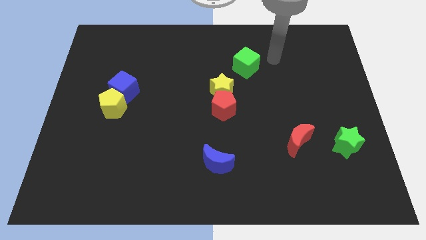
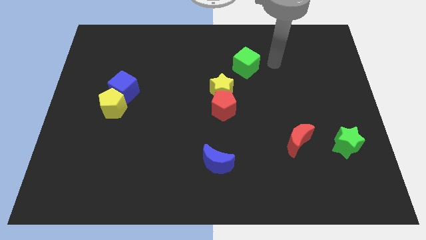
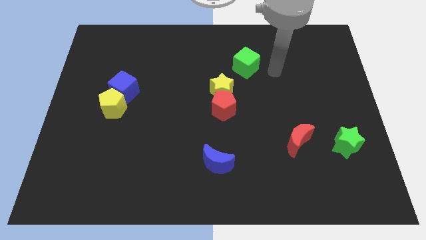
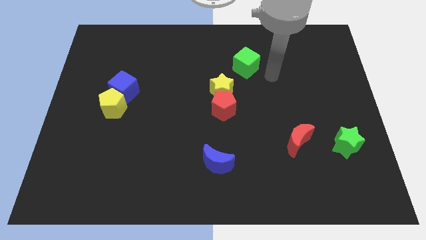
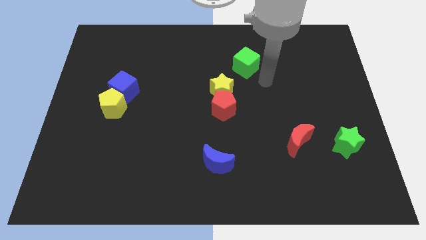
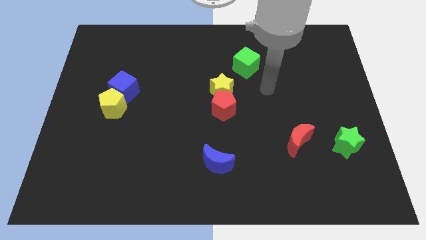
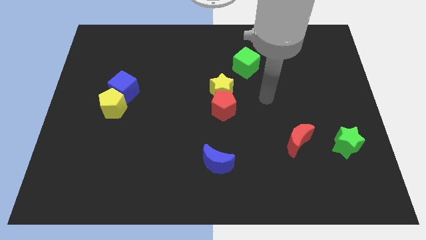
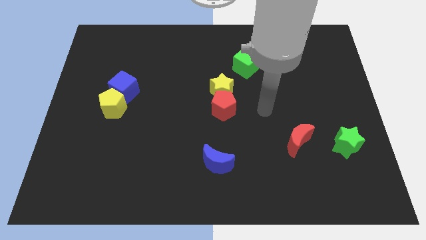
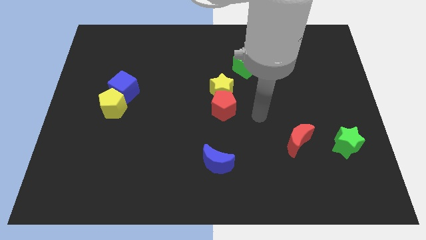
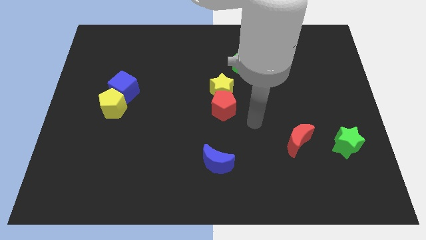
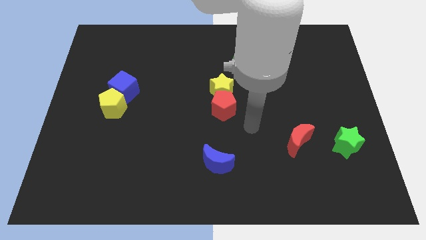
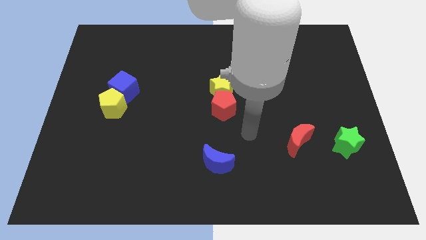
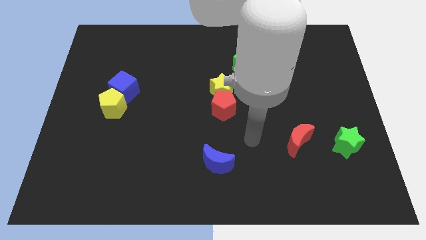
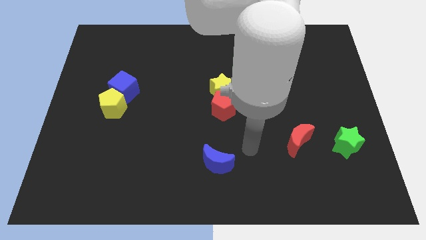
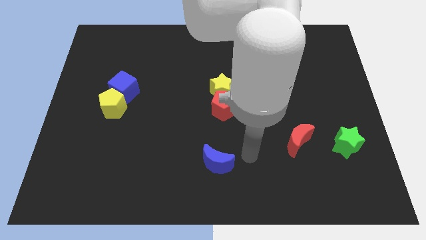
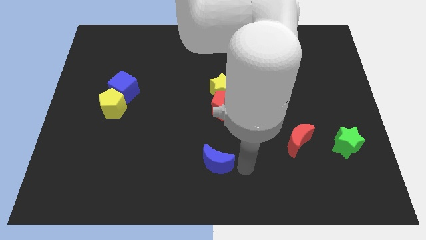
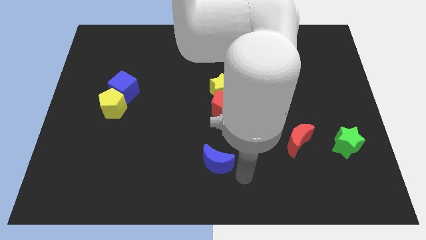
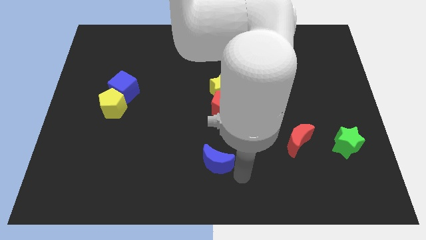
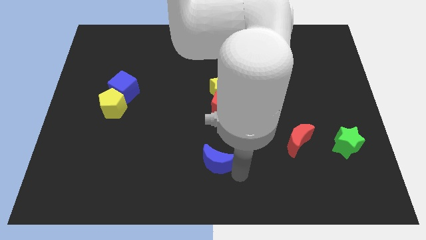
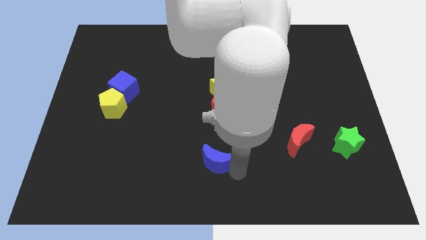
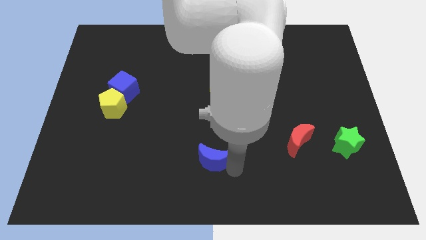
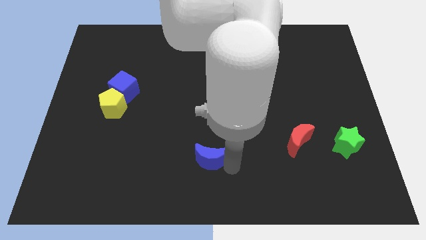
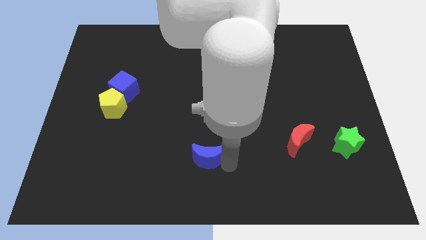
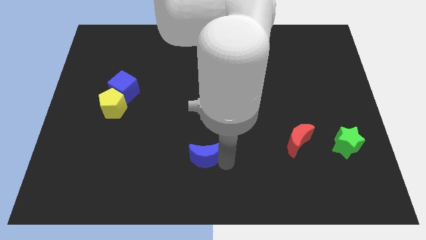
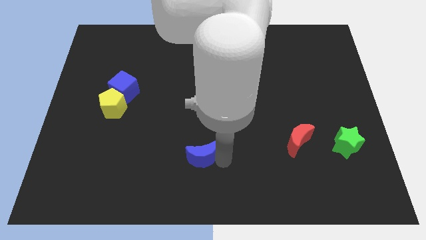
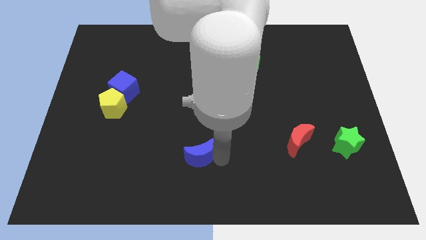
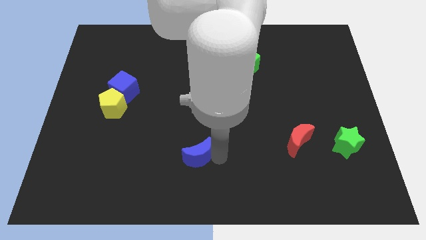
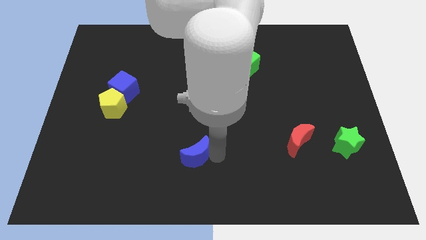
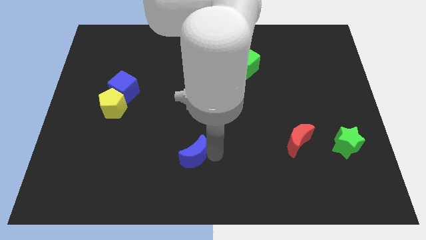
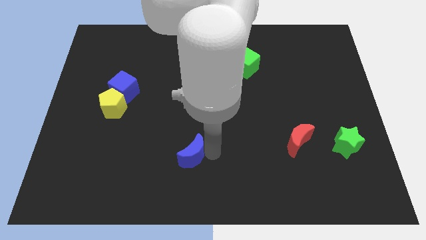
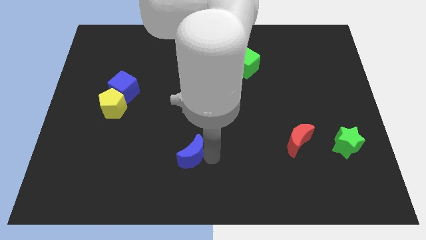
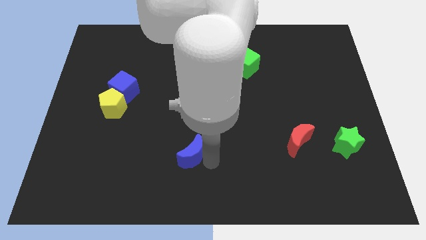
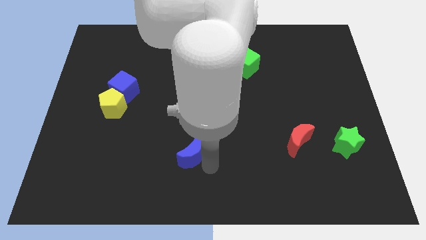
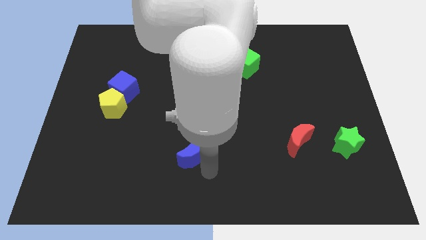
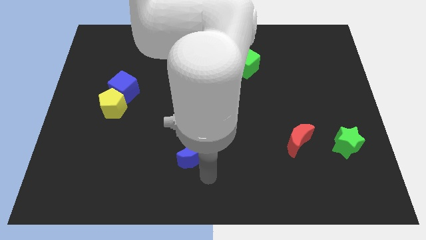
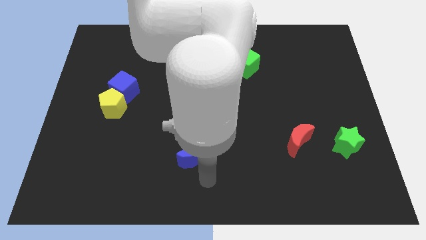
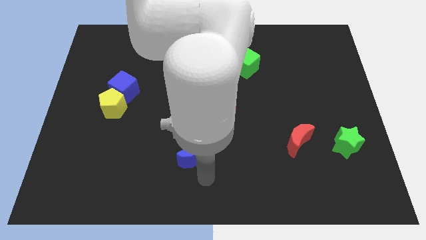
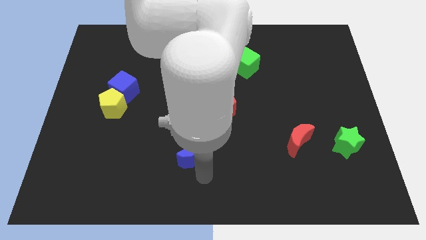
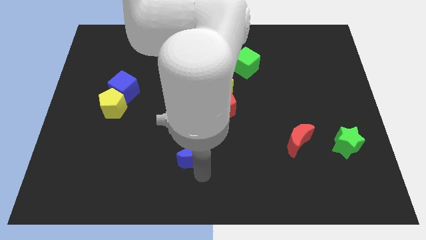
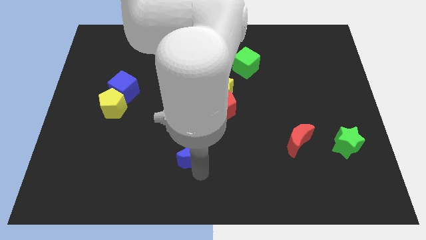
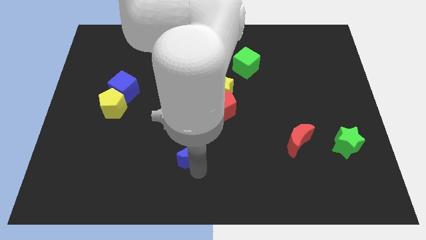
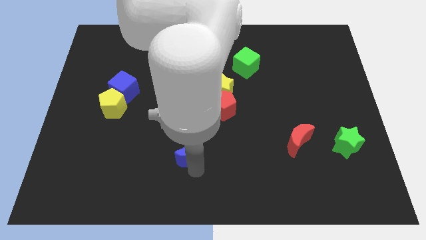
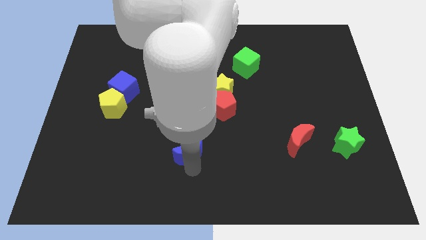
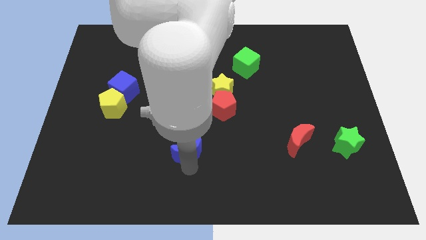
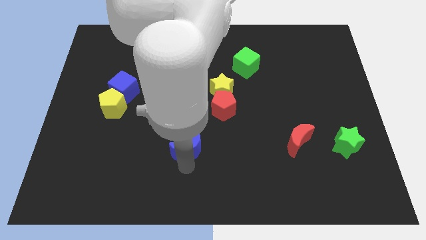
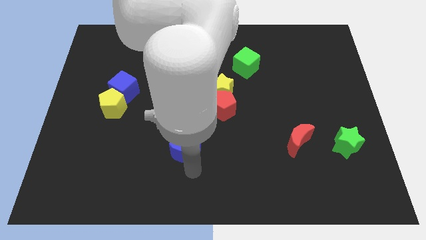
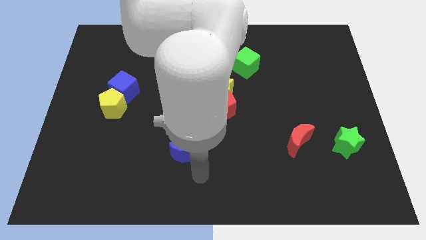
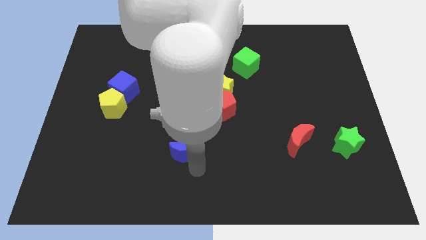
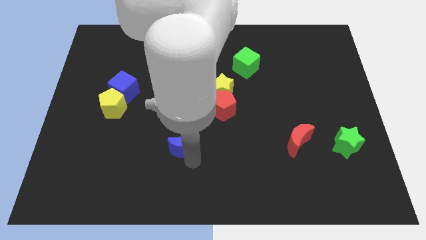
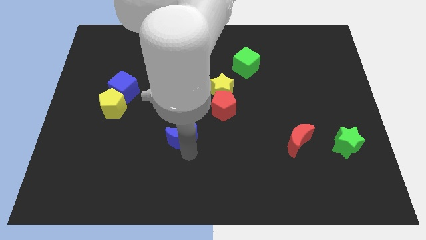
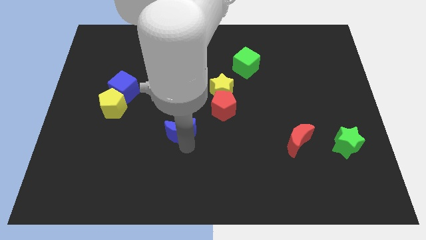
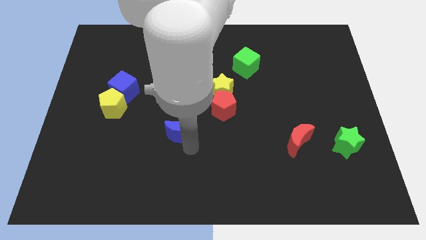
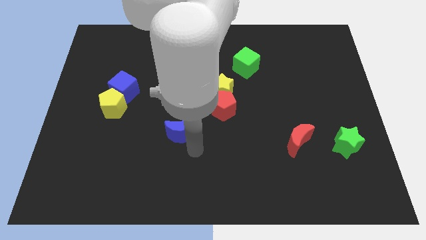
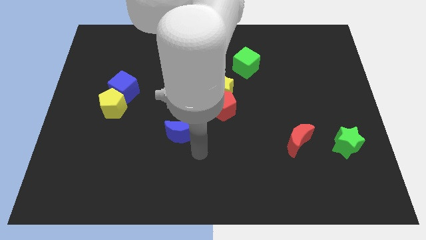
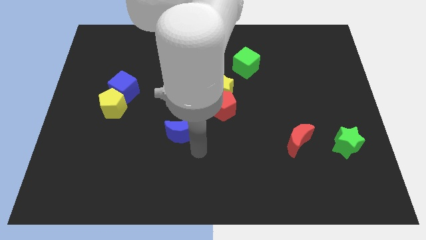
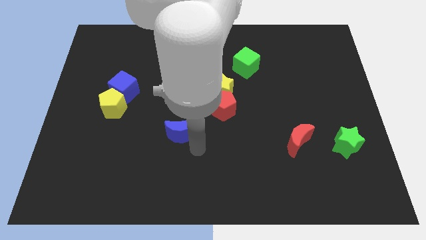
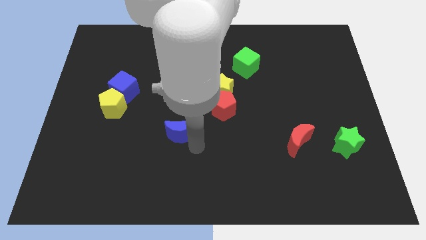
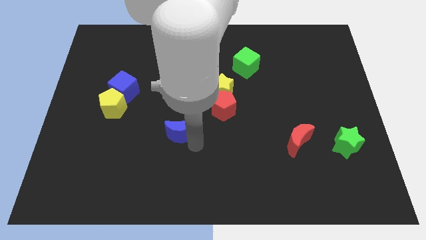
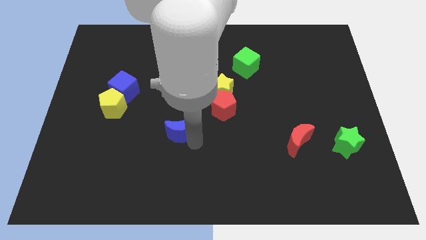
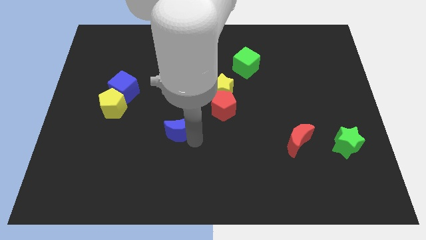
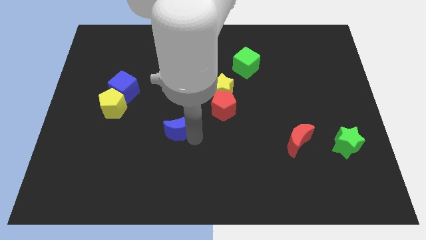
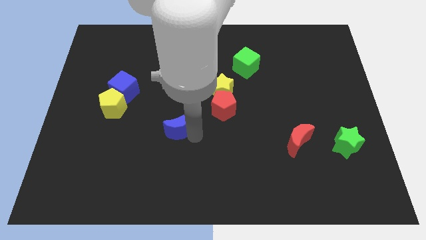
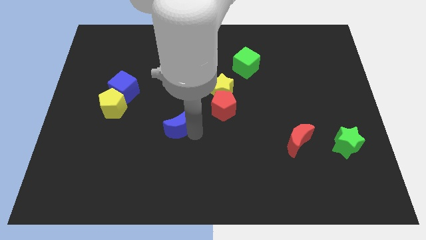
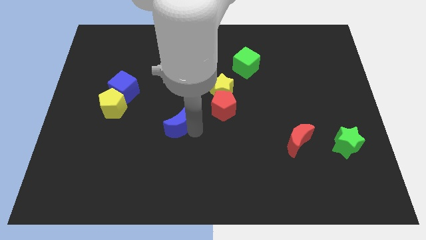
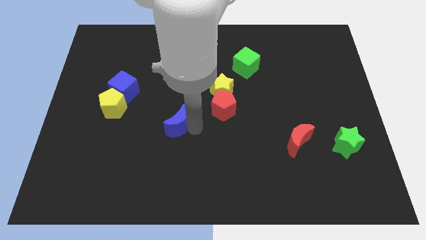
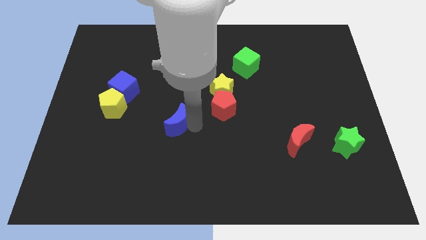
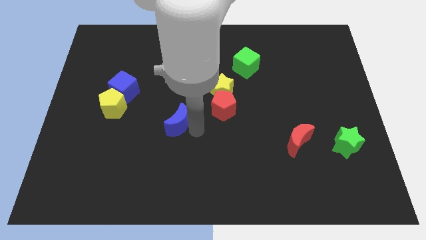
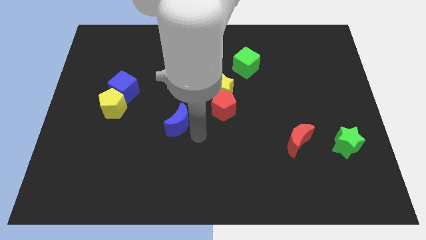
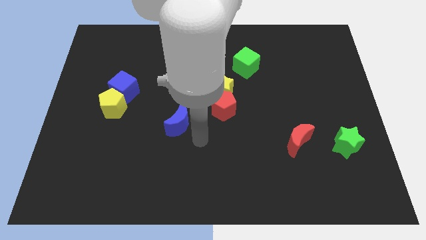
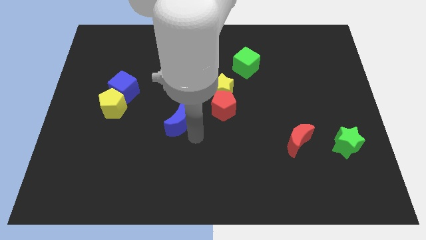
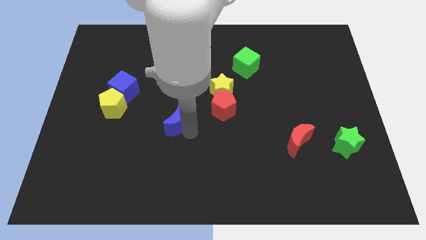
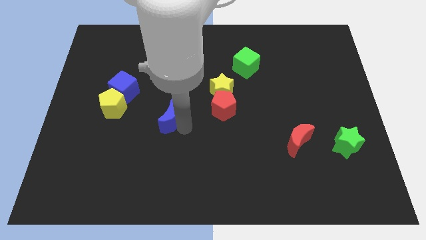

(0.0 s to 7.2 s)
push the blue moon right of the yellow pentagon
